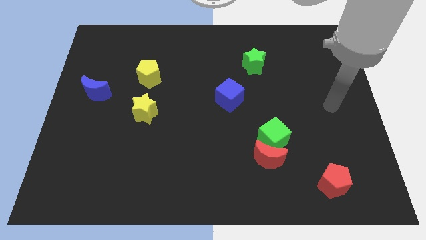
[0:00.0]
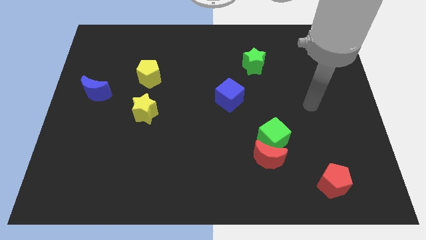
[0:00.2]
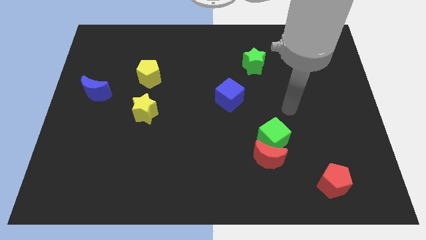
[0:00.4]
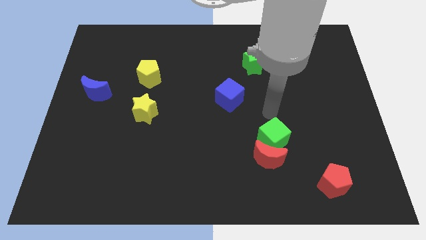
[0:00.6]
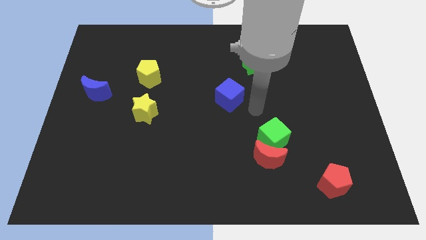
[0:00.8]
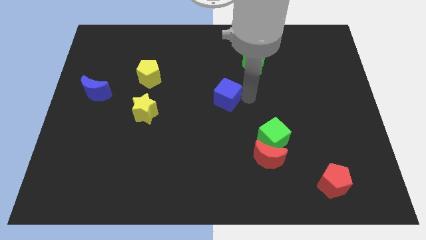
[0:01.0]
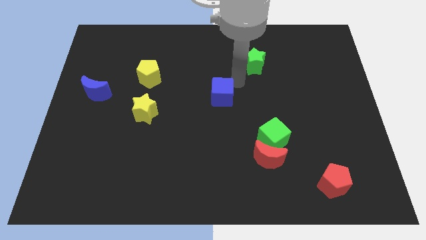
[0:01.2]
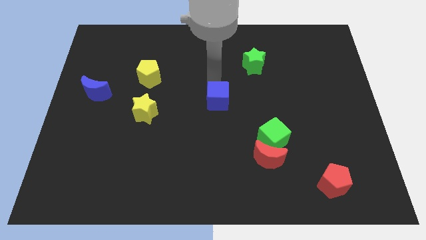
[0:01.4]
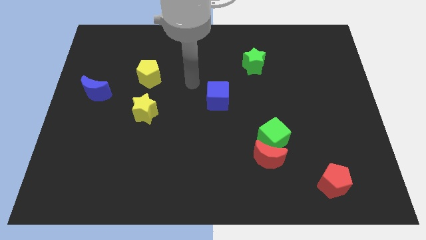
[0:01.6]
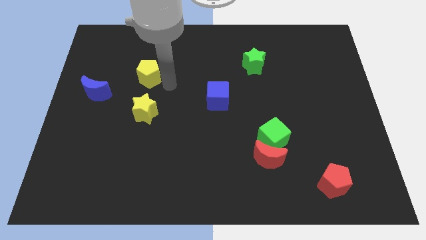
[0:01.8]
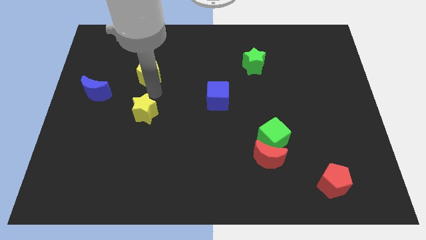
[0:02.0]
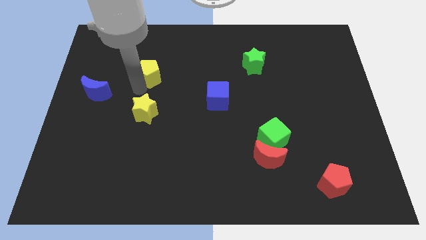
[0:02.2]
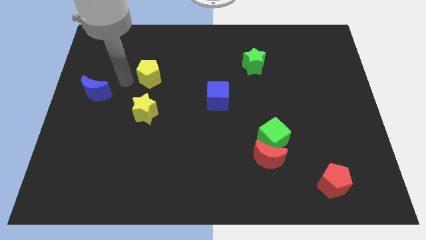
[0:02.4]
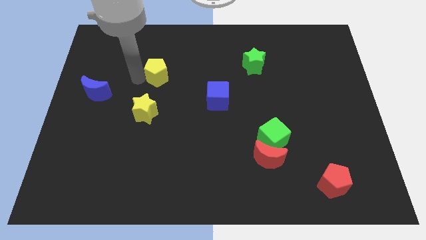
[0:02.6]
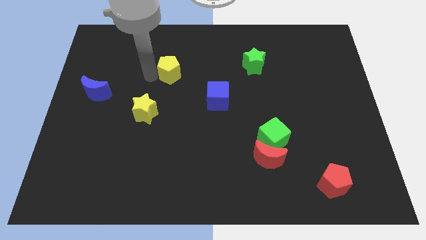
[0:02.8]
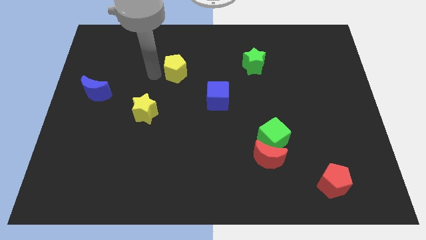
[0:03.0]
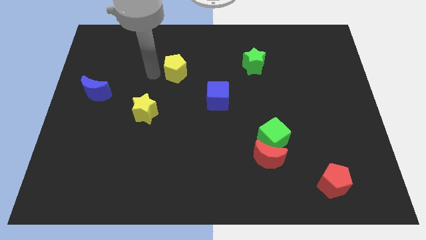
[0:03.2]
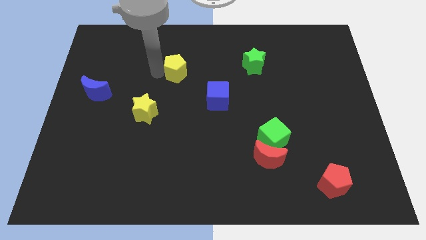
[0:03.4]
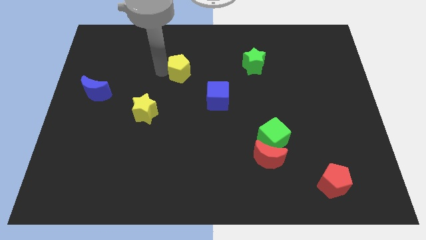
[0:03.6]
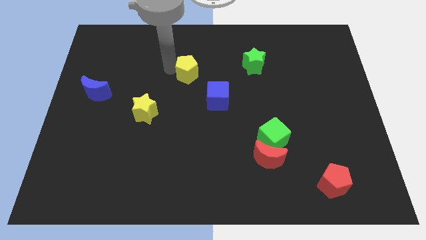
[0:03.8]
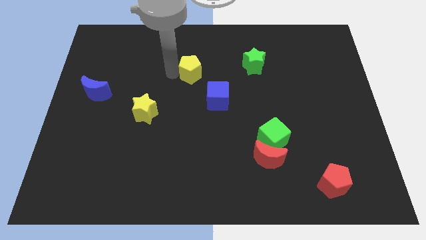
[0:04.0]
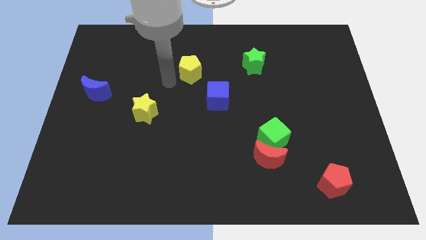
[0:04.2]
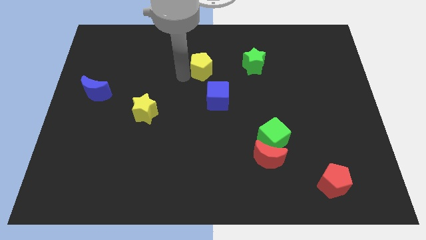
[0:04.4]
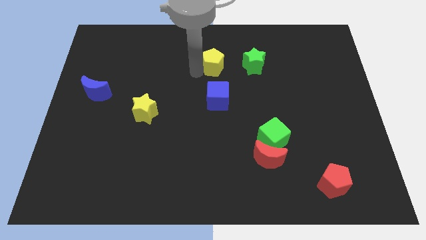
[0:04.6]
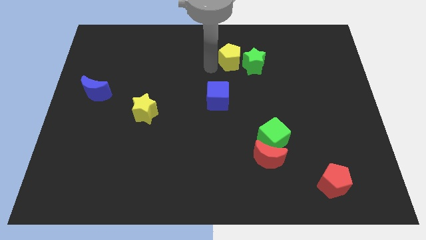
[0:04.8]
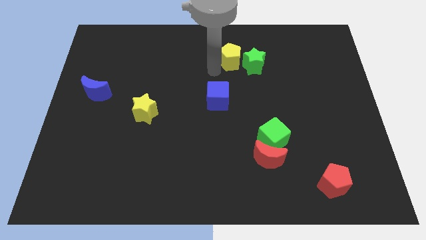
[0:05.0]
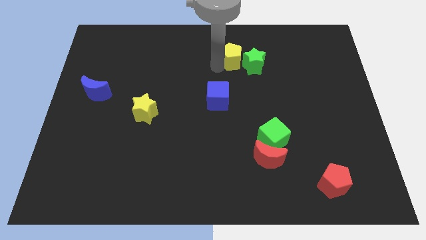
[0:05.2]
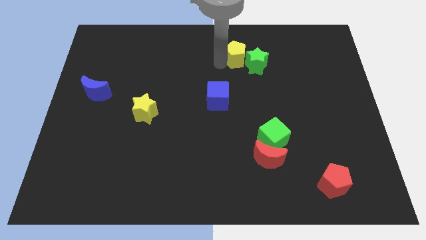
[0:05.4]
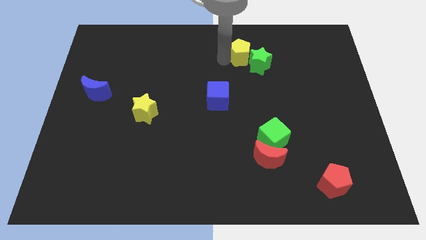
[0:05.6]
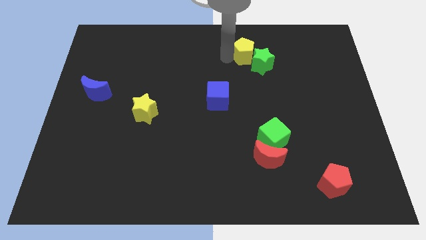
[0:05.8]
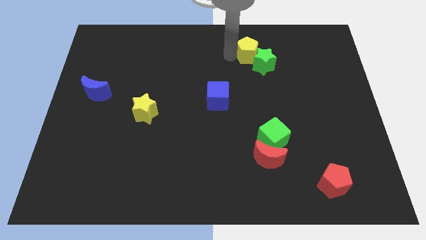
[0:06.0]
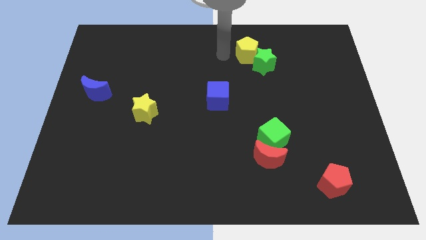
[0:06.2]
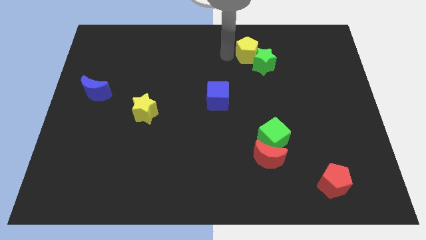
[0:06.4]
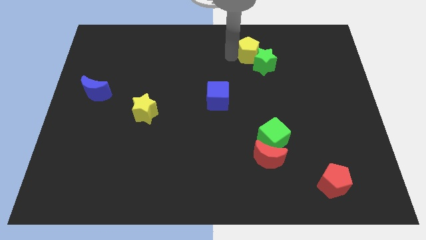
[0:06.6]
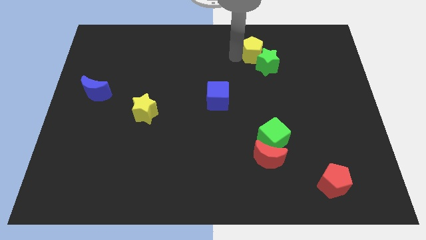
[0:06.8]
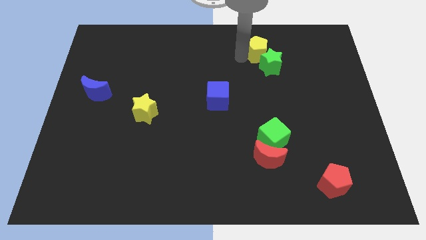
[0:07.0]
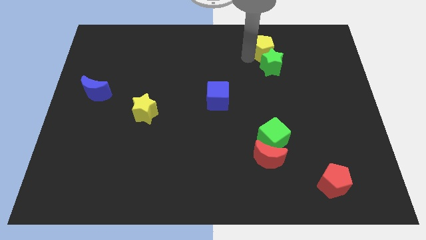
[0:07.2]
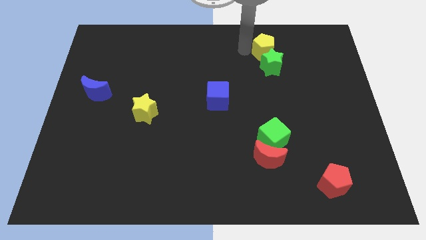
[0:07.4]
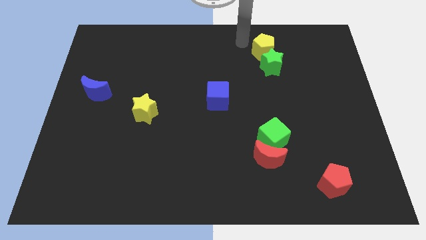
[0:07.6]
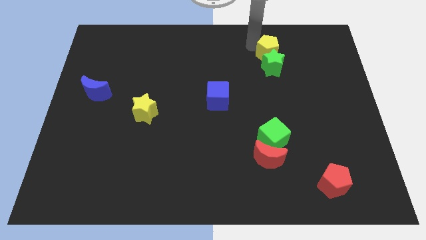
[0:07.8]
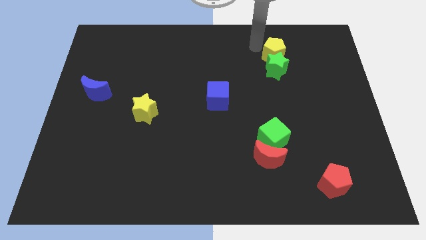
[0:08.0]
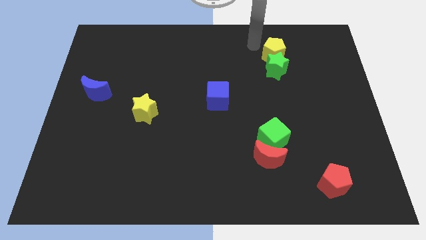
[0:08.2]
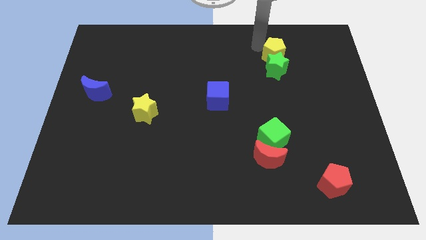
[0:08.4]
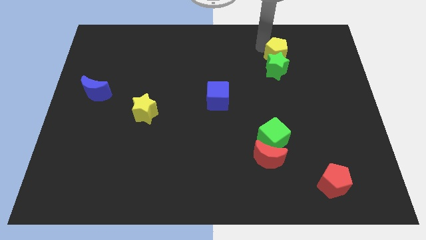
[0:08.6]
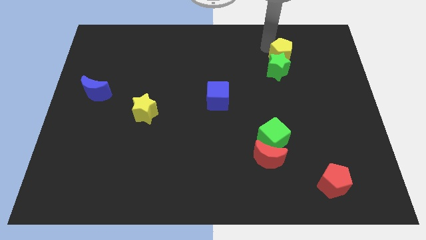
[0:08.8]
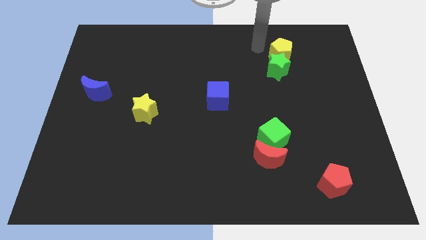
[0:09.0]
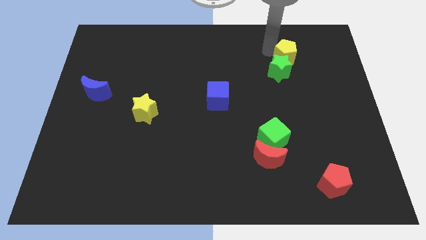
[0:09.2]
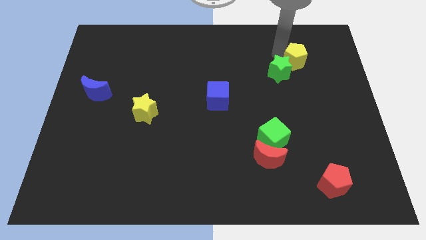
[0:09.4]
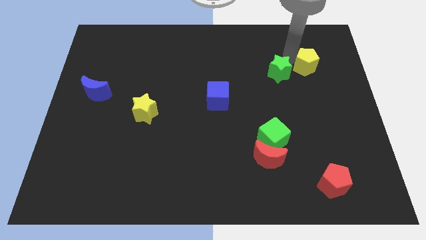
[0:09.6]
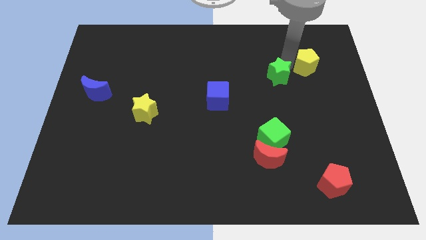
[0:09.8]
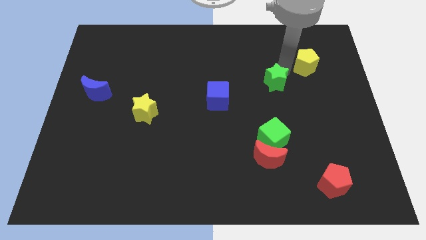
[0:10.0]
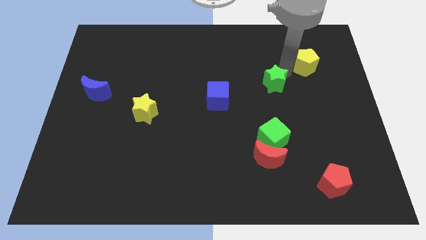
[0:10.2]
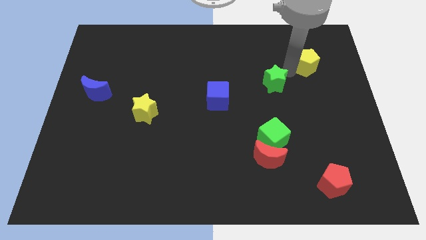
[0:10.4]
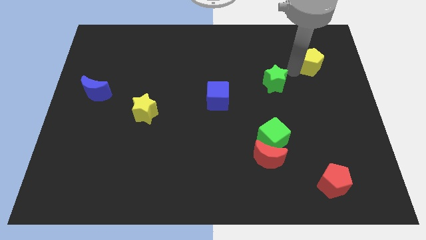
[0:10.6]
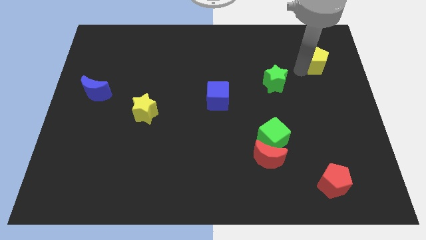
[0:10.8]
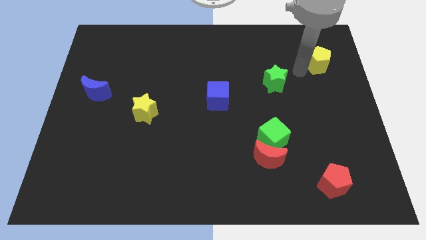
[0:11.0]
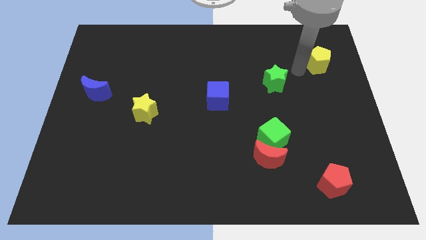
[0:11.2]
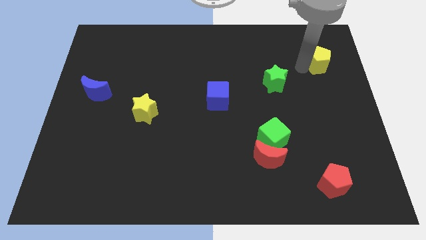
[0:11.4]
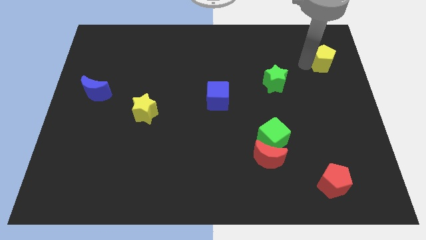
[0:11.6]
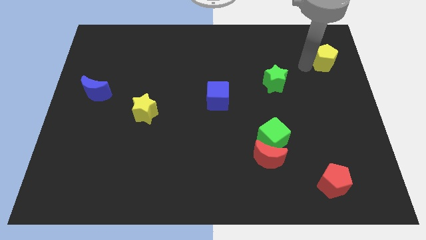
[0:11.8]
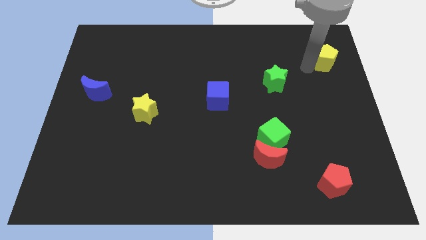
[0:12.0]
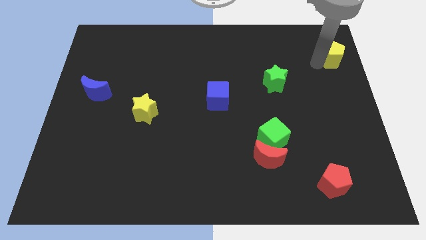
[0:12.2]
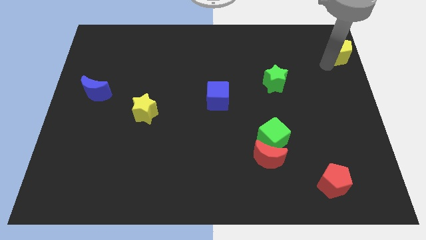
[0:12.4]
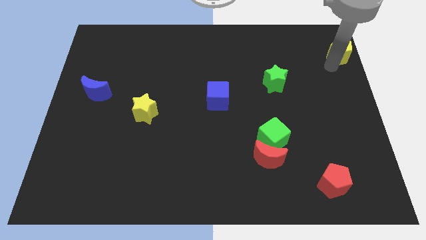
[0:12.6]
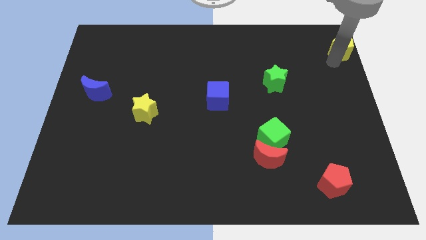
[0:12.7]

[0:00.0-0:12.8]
slide the yellow pentagon to the upper right corner

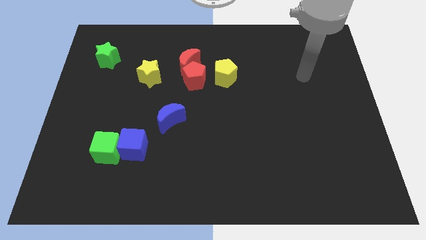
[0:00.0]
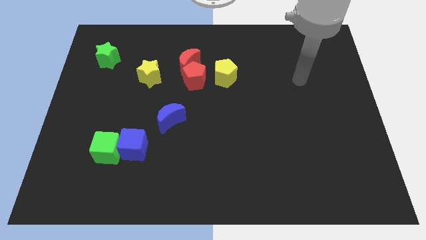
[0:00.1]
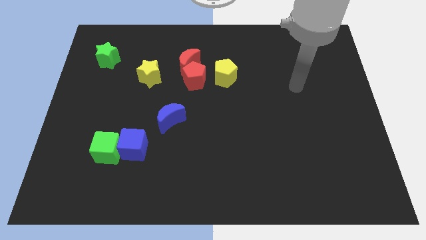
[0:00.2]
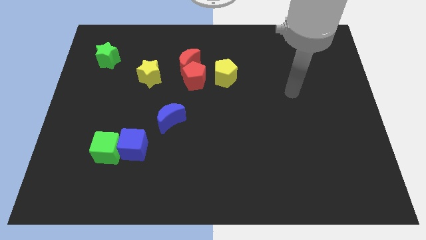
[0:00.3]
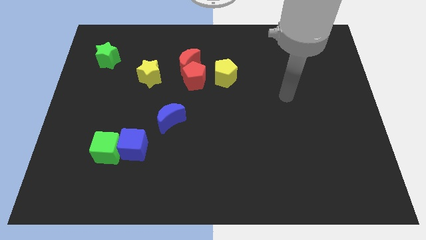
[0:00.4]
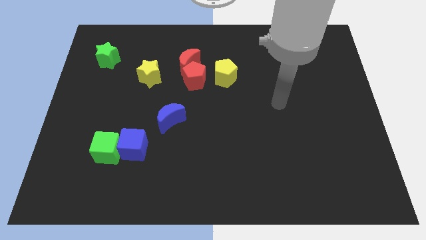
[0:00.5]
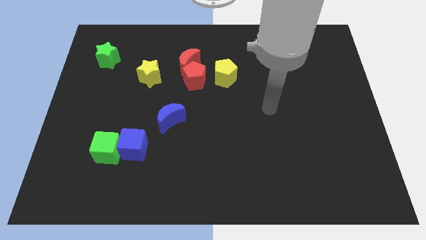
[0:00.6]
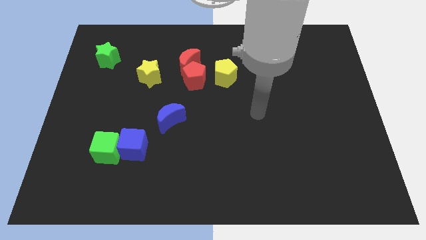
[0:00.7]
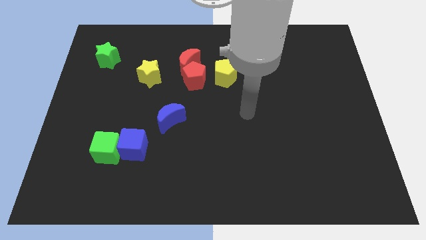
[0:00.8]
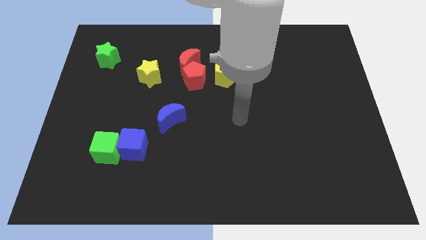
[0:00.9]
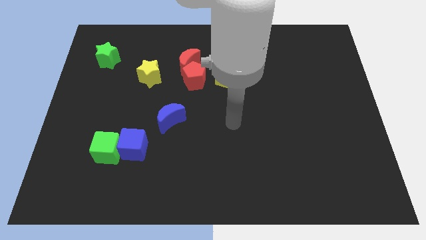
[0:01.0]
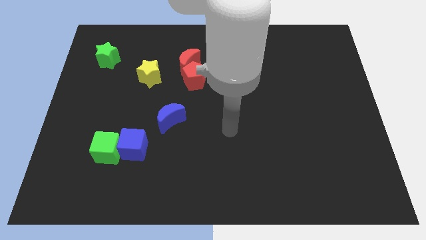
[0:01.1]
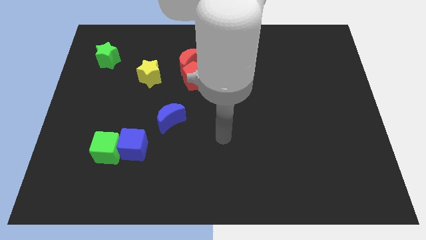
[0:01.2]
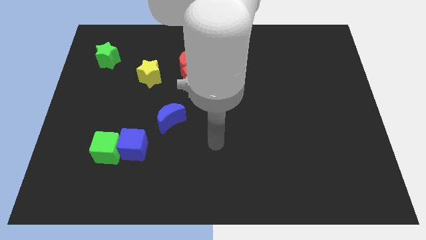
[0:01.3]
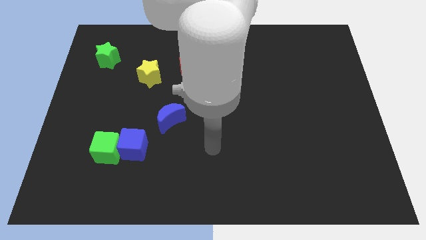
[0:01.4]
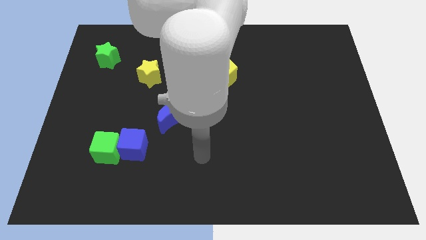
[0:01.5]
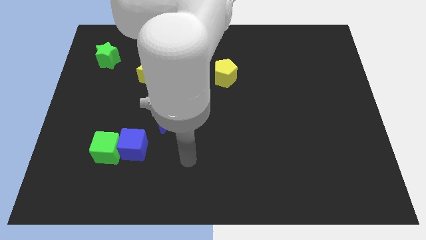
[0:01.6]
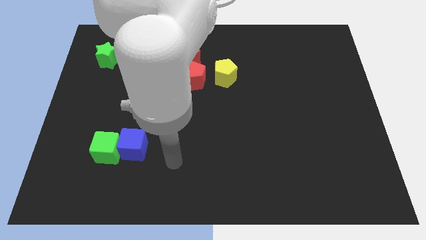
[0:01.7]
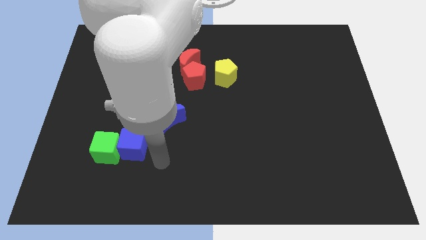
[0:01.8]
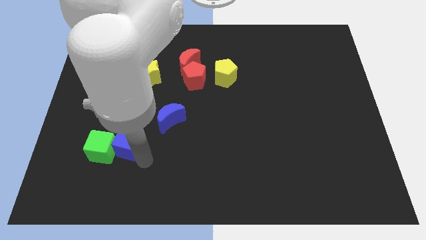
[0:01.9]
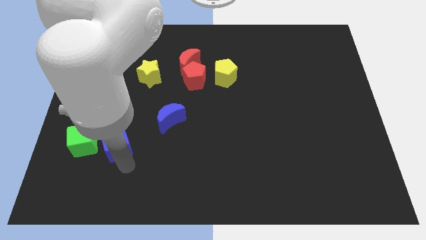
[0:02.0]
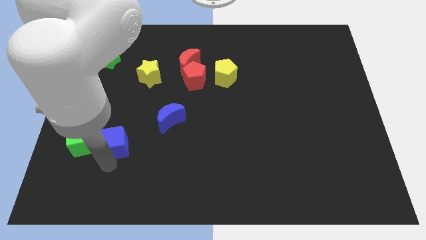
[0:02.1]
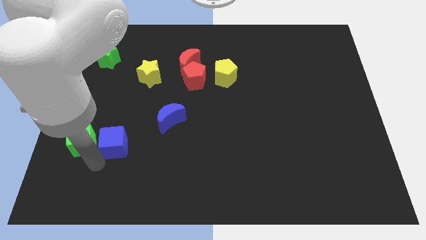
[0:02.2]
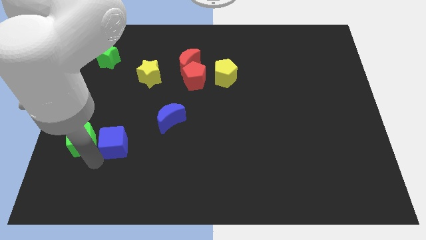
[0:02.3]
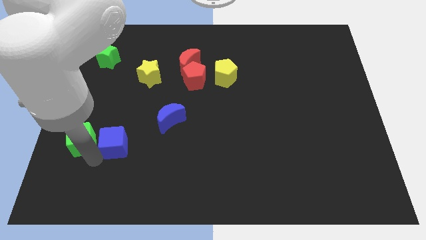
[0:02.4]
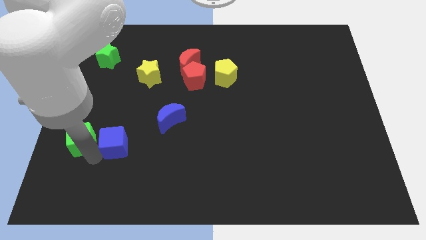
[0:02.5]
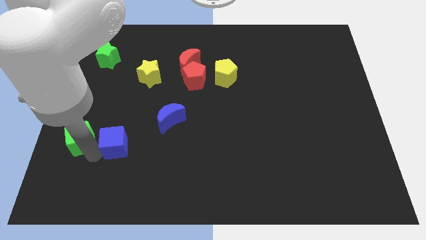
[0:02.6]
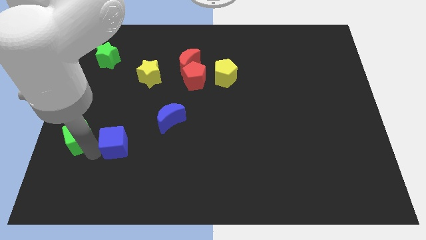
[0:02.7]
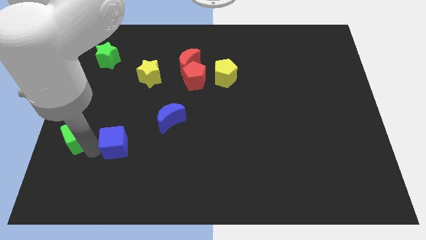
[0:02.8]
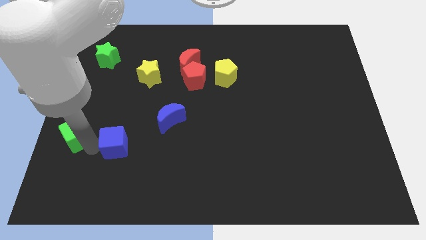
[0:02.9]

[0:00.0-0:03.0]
move the green cube to the left side of the board
